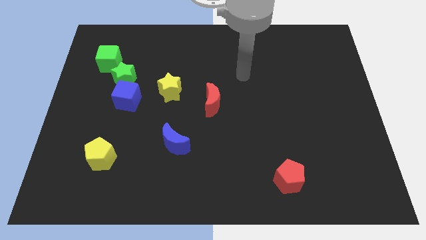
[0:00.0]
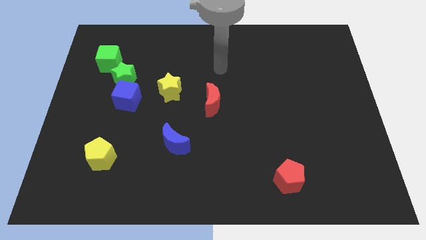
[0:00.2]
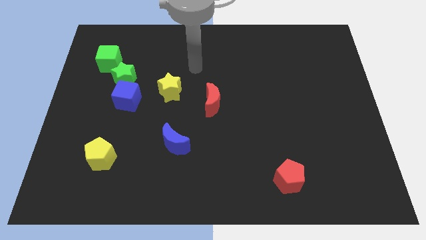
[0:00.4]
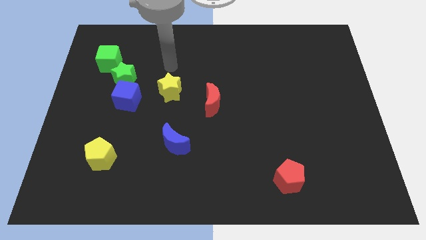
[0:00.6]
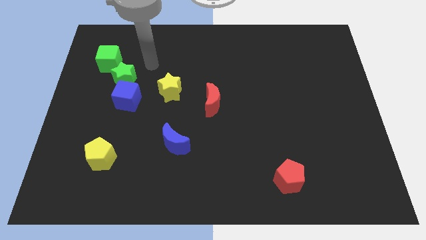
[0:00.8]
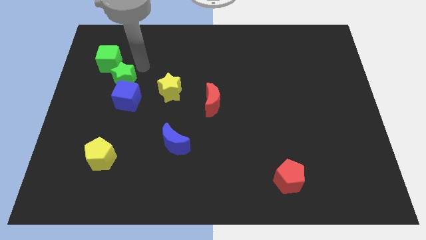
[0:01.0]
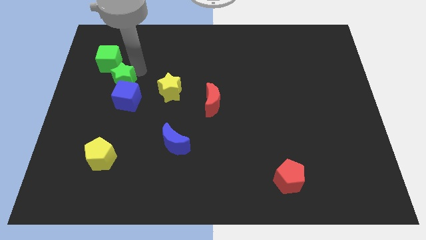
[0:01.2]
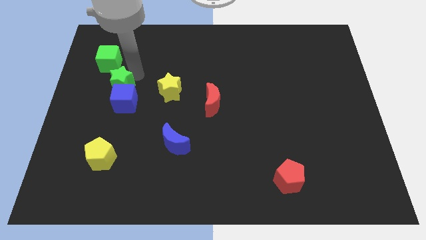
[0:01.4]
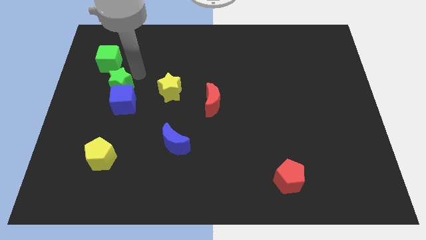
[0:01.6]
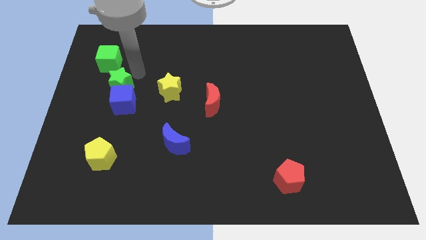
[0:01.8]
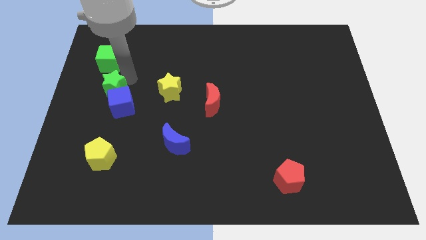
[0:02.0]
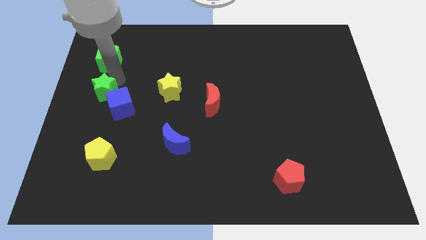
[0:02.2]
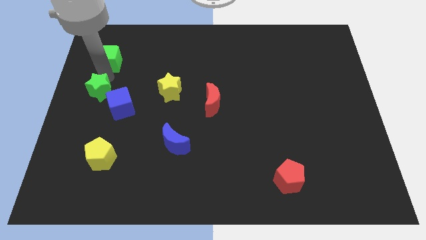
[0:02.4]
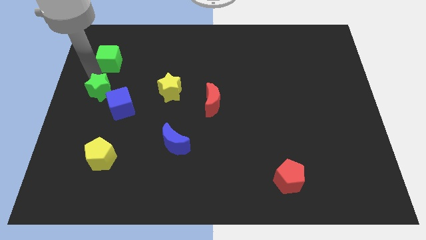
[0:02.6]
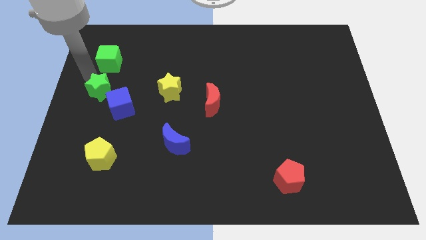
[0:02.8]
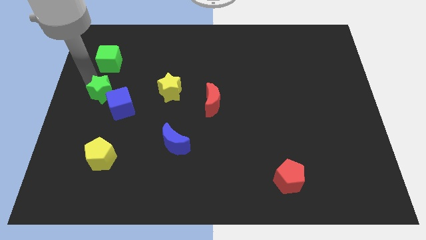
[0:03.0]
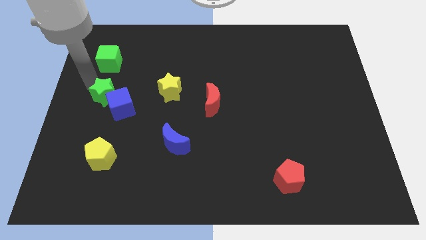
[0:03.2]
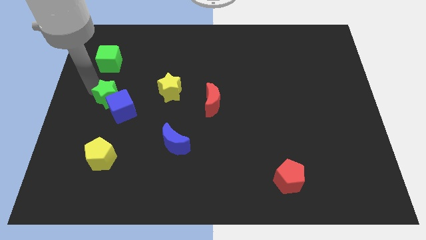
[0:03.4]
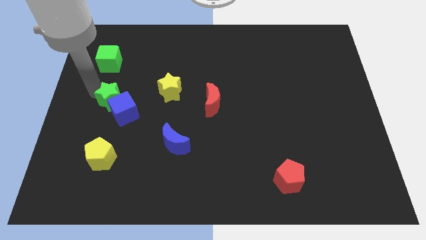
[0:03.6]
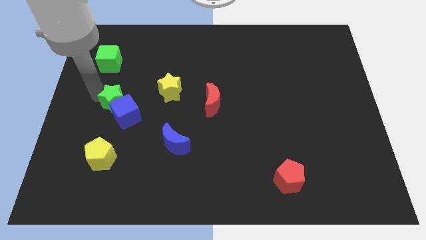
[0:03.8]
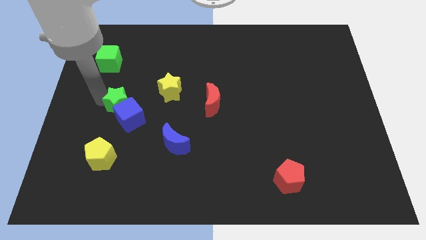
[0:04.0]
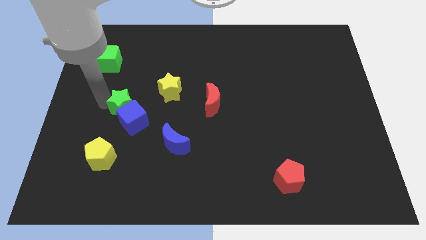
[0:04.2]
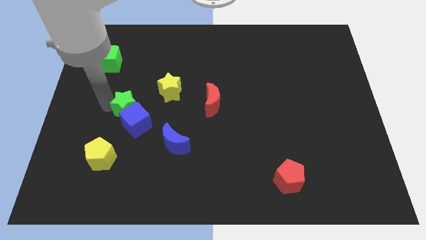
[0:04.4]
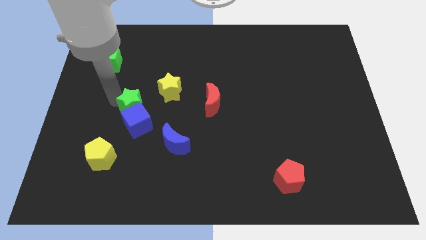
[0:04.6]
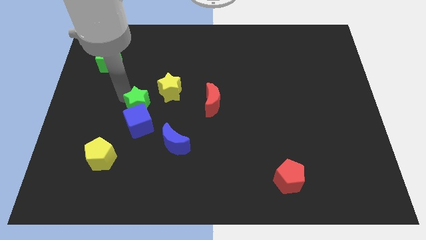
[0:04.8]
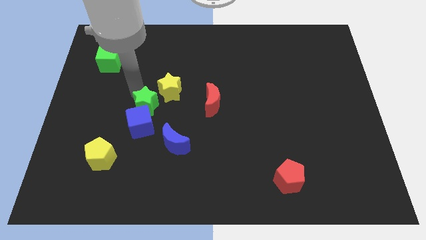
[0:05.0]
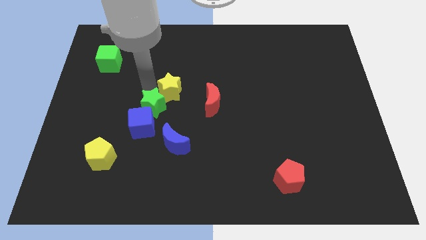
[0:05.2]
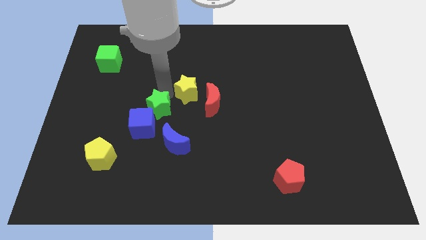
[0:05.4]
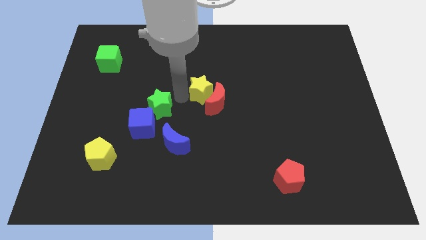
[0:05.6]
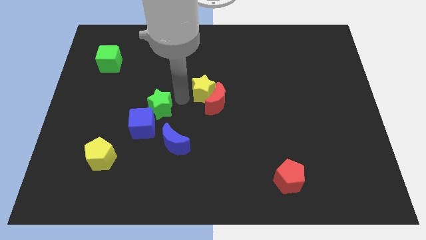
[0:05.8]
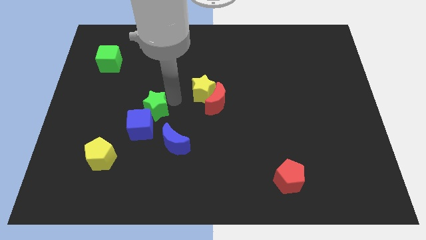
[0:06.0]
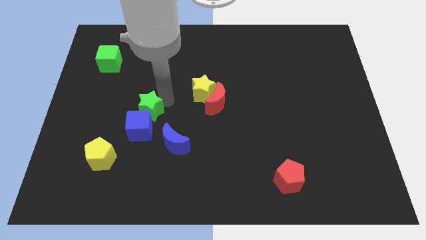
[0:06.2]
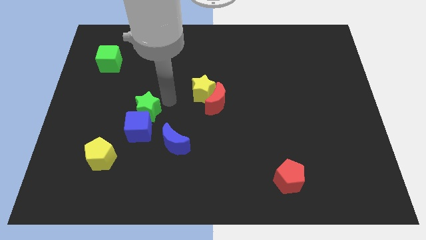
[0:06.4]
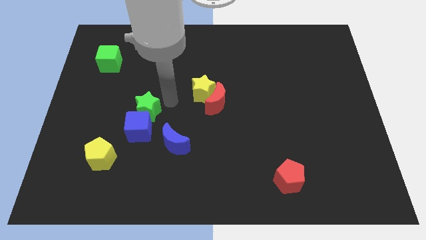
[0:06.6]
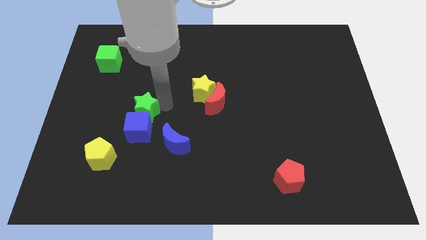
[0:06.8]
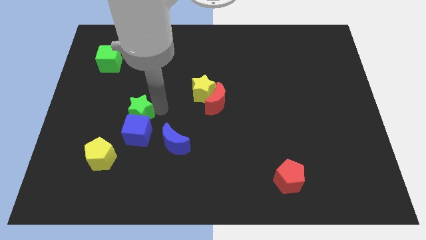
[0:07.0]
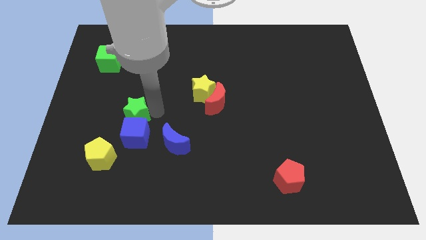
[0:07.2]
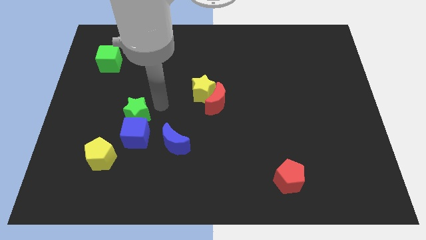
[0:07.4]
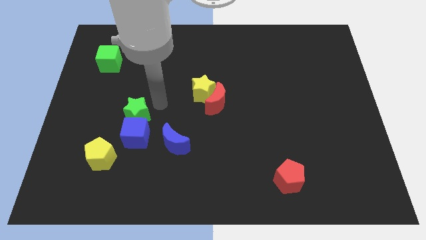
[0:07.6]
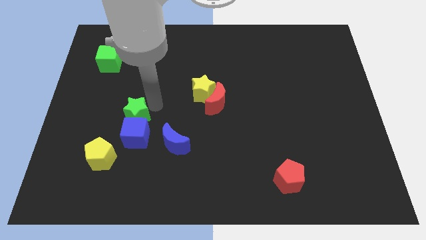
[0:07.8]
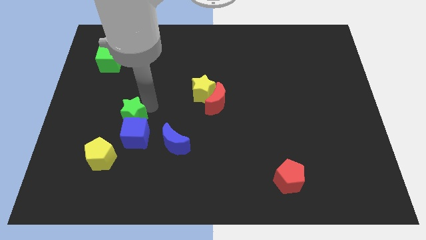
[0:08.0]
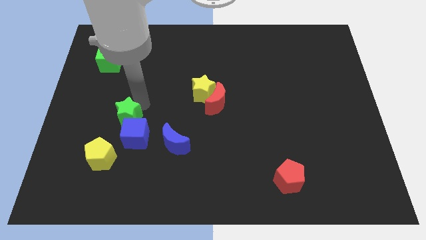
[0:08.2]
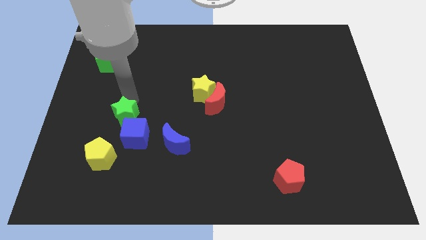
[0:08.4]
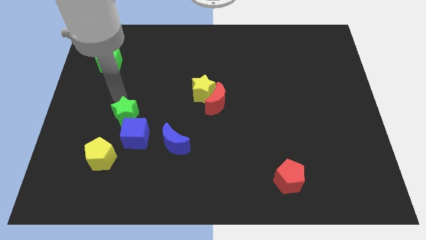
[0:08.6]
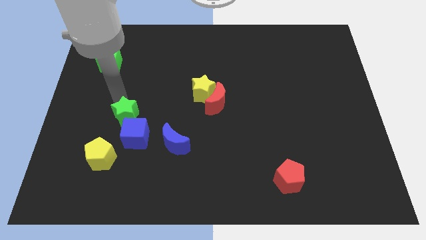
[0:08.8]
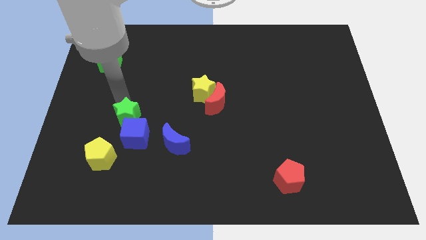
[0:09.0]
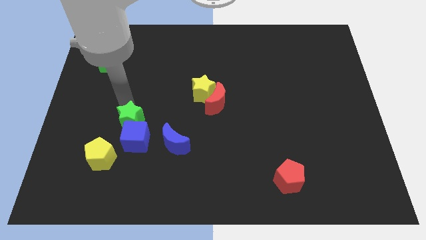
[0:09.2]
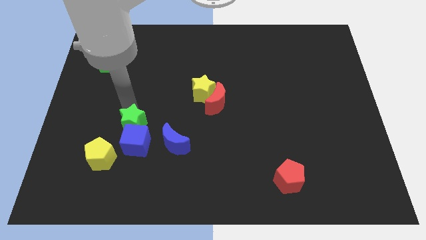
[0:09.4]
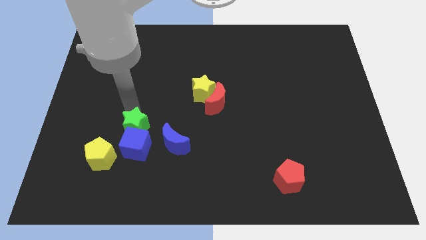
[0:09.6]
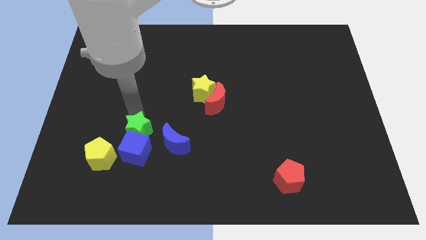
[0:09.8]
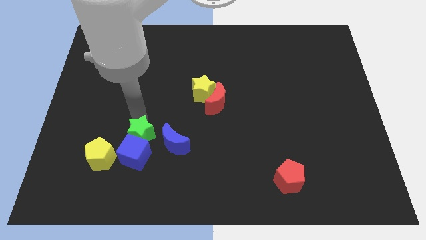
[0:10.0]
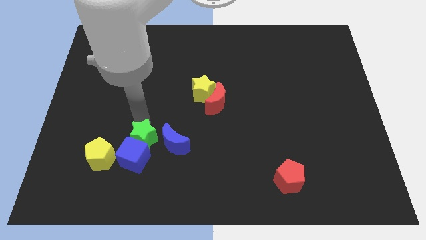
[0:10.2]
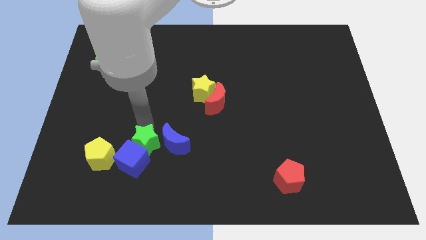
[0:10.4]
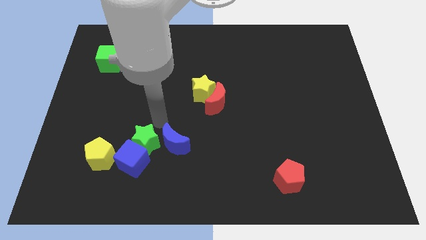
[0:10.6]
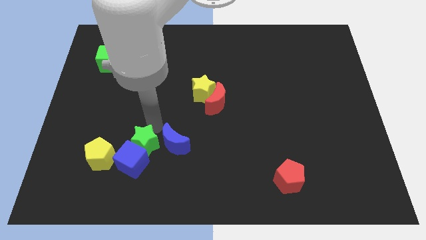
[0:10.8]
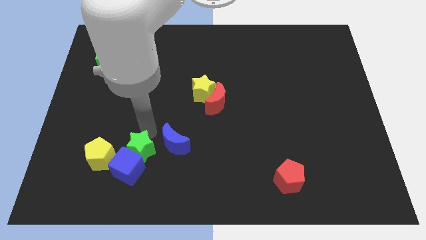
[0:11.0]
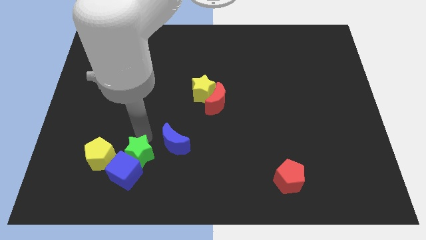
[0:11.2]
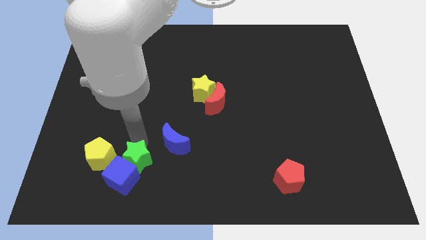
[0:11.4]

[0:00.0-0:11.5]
push the green star diagonally down and to the right of the yellow pentagon

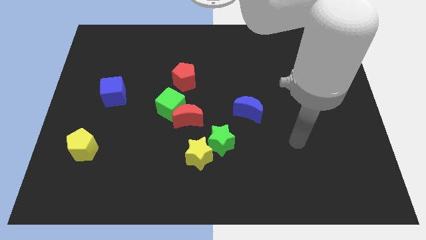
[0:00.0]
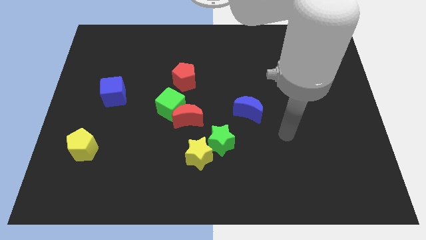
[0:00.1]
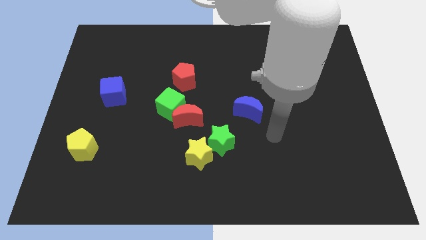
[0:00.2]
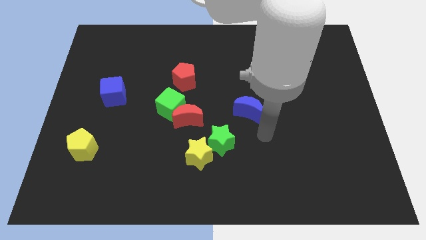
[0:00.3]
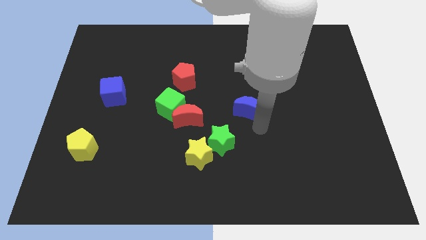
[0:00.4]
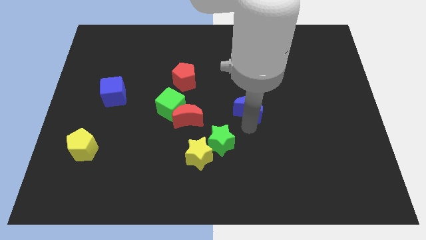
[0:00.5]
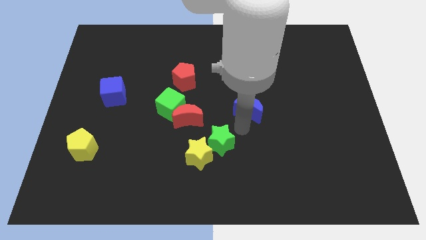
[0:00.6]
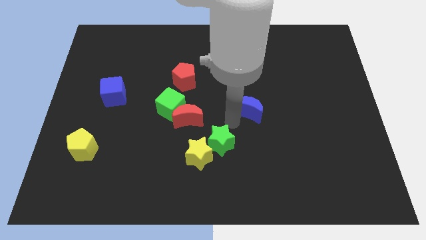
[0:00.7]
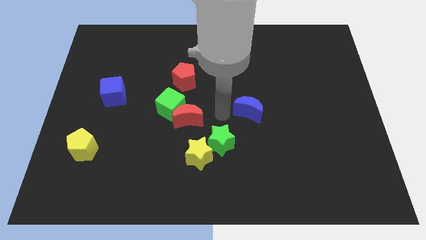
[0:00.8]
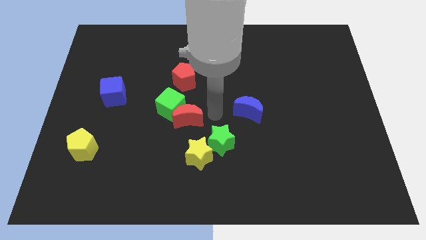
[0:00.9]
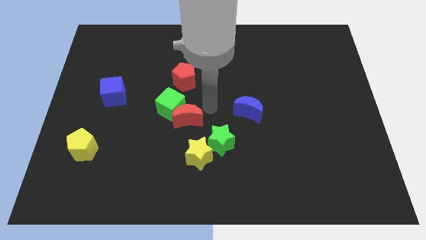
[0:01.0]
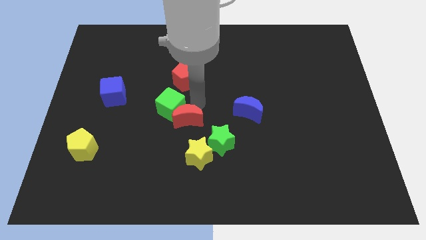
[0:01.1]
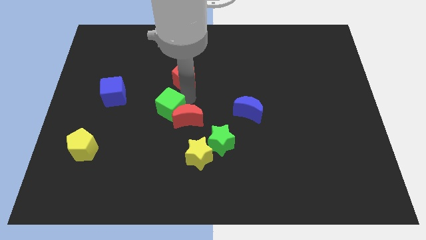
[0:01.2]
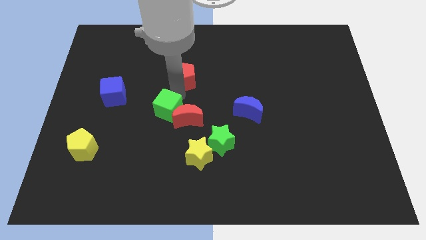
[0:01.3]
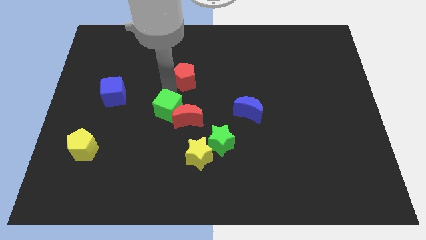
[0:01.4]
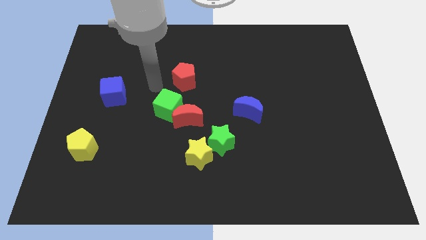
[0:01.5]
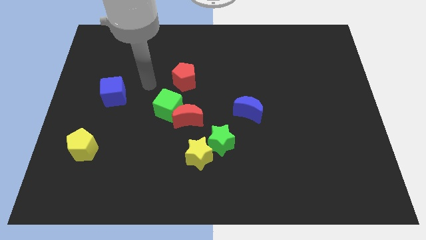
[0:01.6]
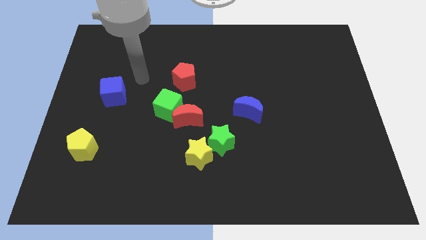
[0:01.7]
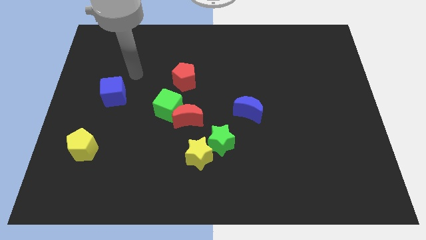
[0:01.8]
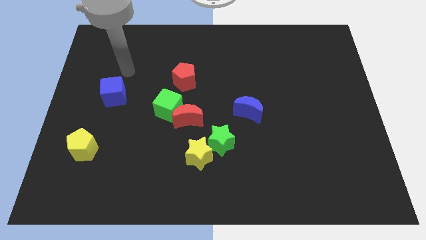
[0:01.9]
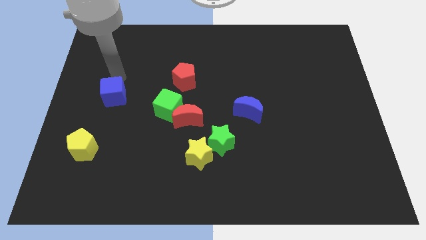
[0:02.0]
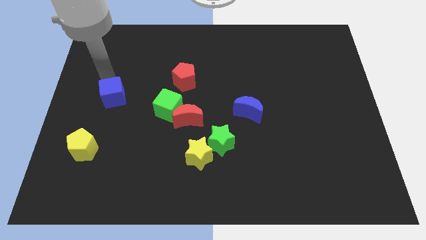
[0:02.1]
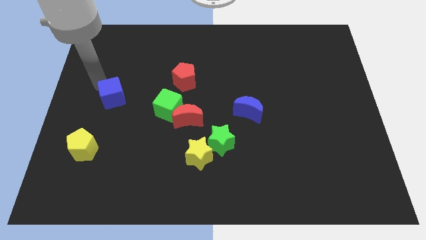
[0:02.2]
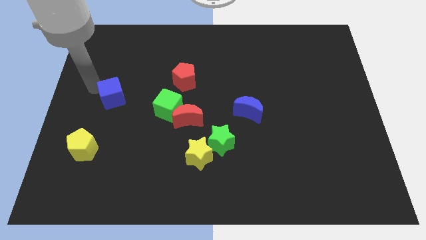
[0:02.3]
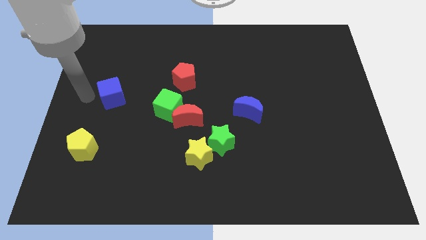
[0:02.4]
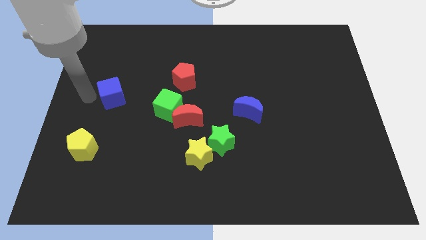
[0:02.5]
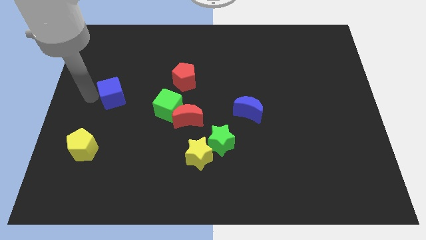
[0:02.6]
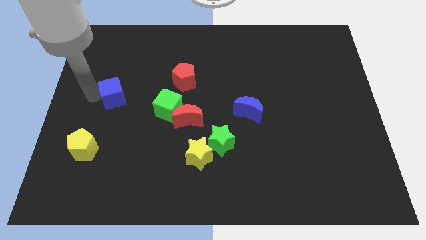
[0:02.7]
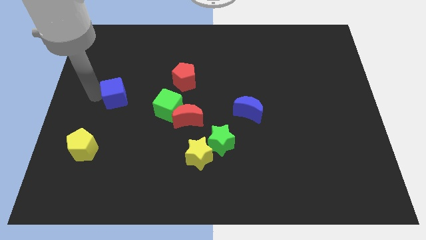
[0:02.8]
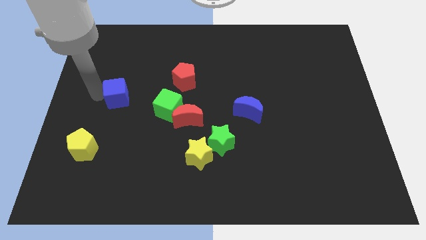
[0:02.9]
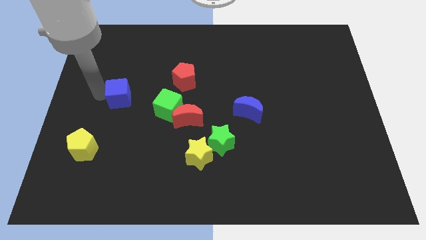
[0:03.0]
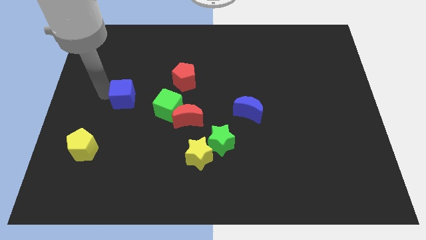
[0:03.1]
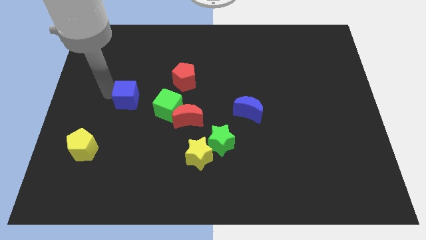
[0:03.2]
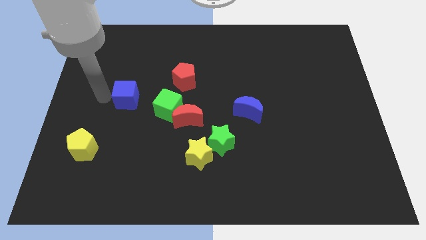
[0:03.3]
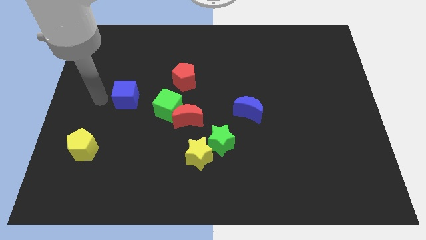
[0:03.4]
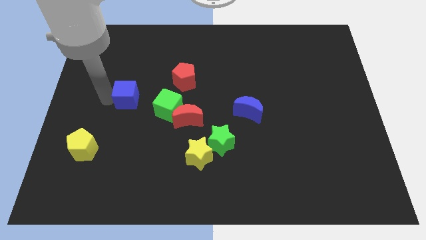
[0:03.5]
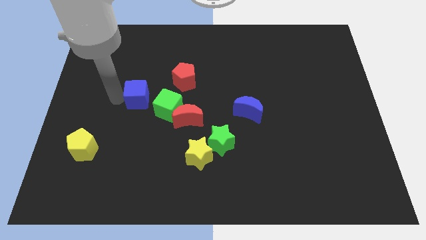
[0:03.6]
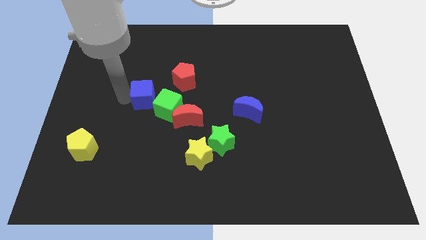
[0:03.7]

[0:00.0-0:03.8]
slide the blue cube to the bottom left side of the red pentagon
